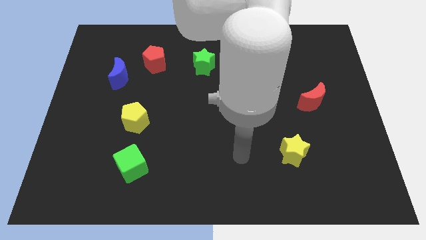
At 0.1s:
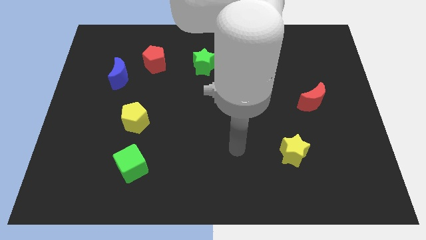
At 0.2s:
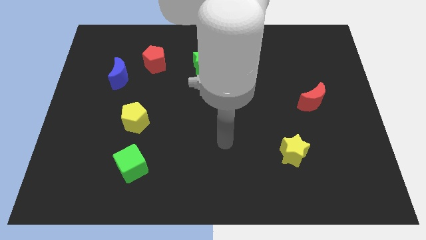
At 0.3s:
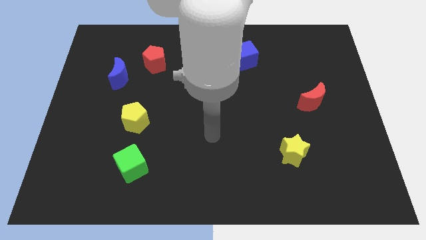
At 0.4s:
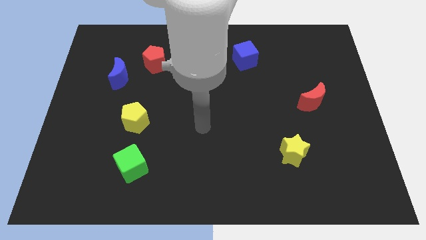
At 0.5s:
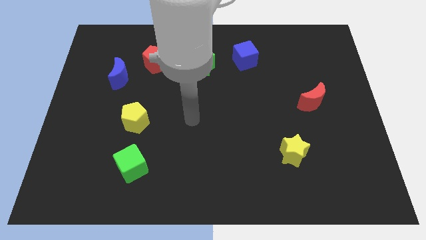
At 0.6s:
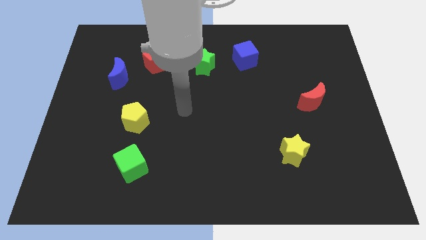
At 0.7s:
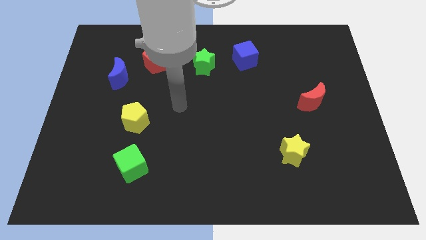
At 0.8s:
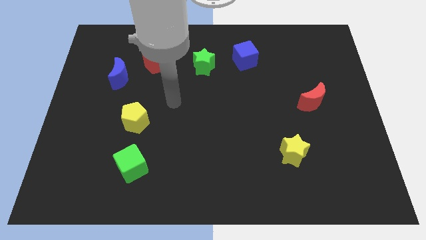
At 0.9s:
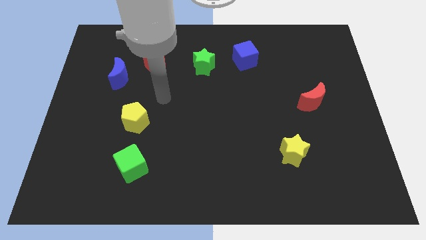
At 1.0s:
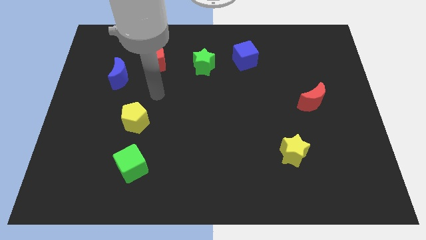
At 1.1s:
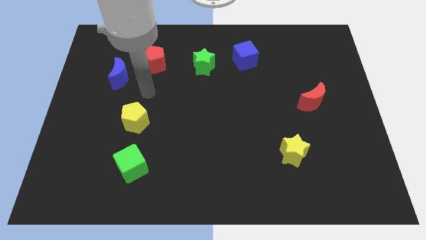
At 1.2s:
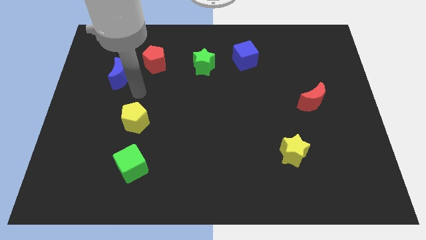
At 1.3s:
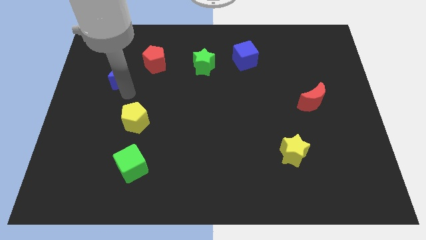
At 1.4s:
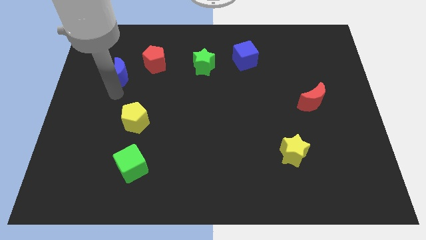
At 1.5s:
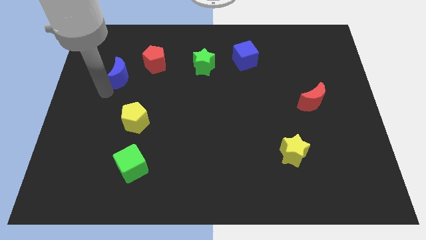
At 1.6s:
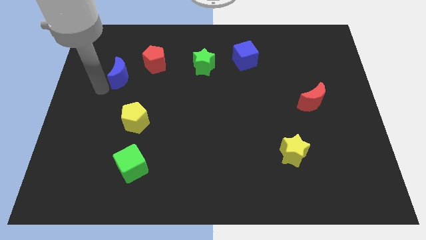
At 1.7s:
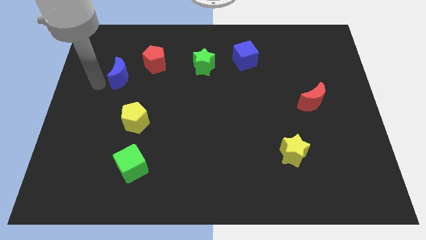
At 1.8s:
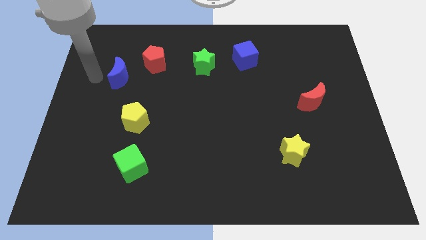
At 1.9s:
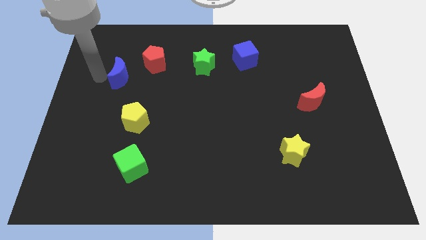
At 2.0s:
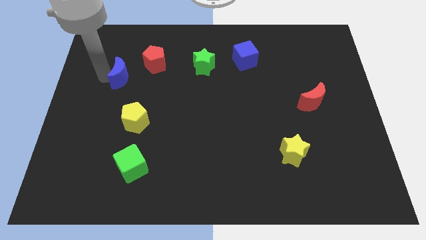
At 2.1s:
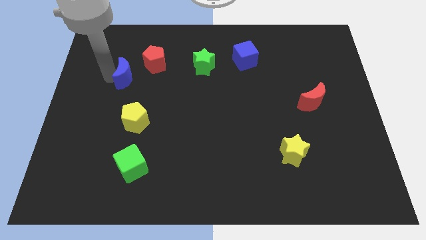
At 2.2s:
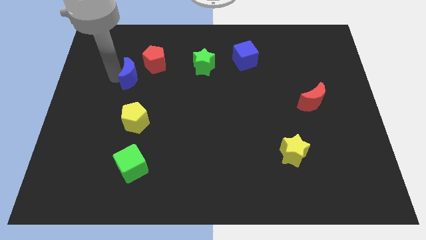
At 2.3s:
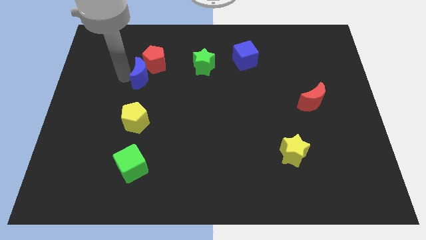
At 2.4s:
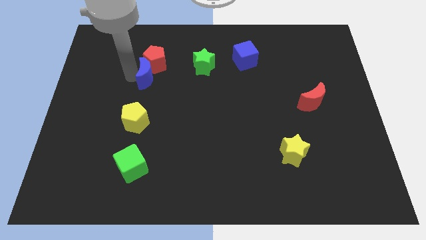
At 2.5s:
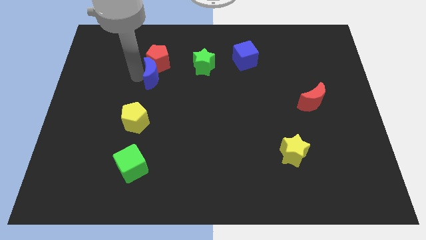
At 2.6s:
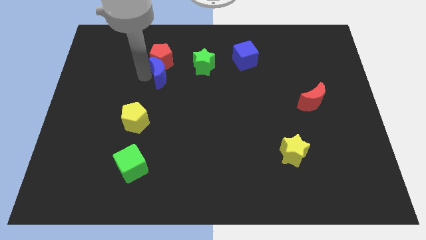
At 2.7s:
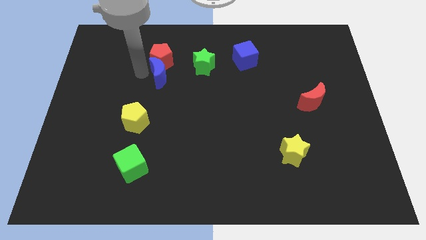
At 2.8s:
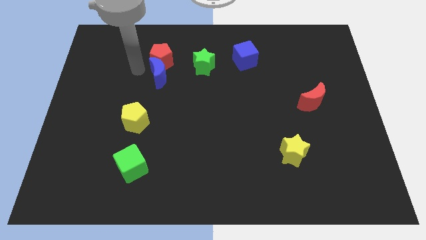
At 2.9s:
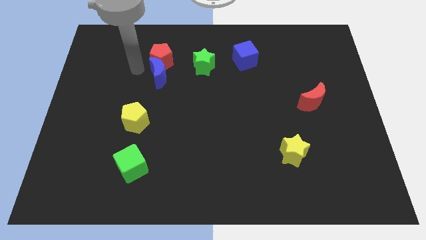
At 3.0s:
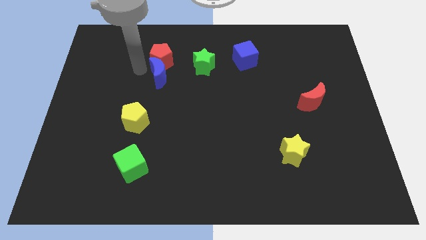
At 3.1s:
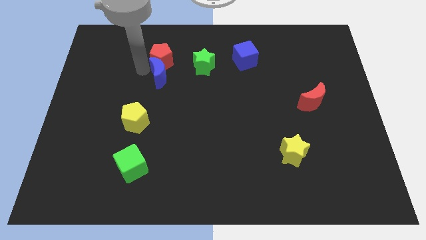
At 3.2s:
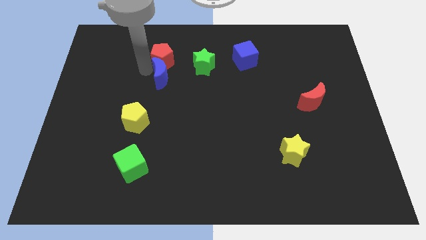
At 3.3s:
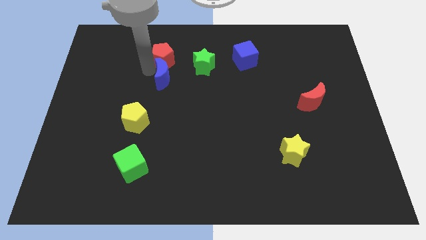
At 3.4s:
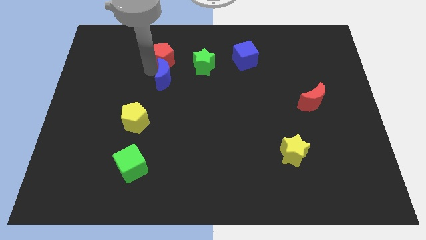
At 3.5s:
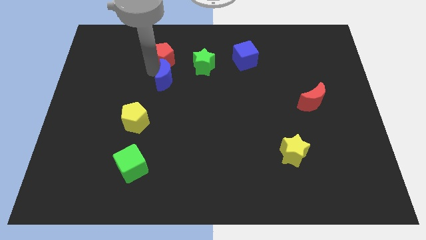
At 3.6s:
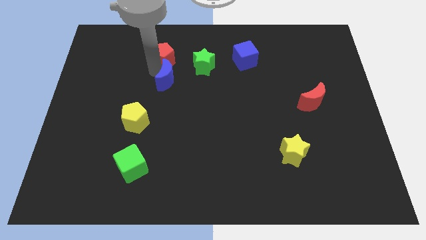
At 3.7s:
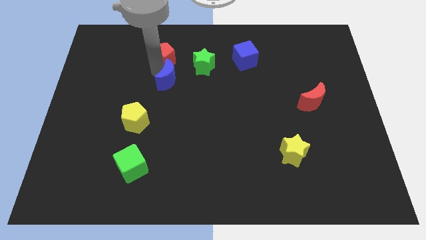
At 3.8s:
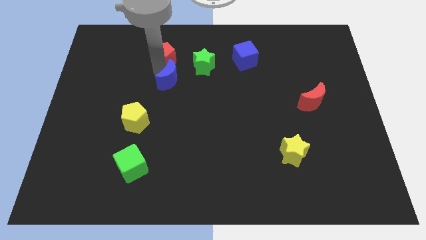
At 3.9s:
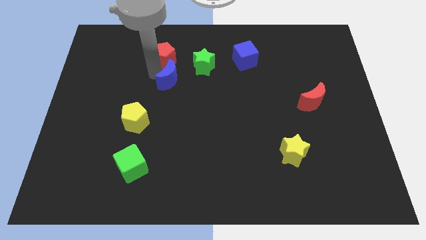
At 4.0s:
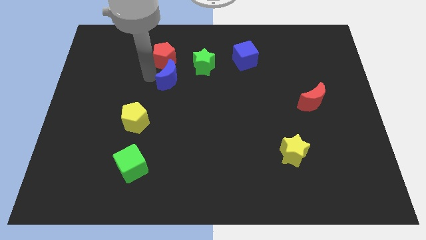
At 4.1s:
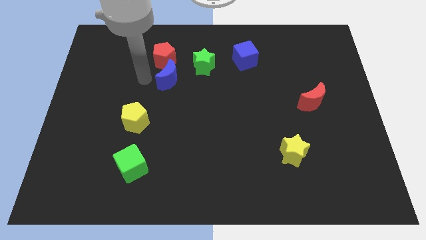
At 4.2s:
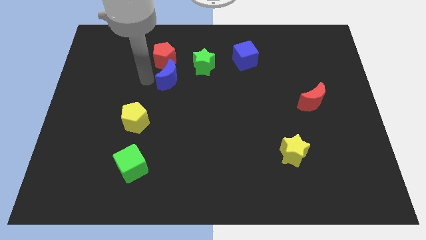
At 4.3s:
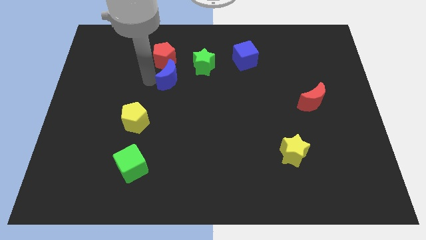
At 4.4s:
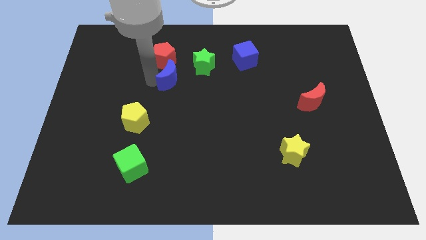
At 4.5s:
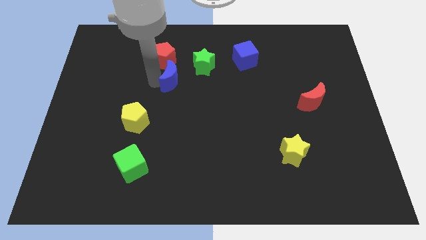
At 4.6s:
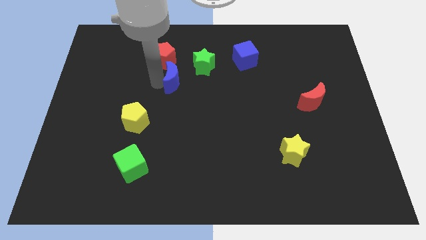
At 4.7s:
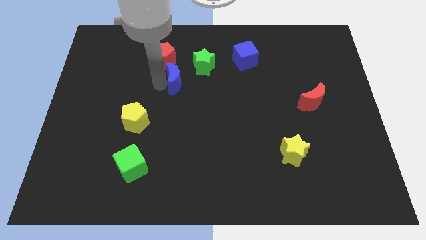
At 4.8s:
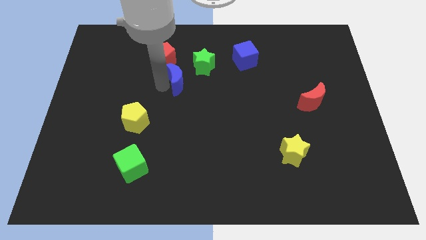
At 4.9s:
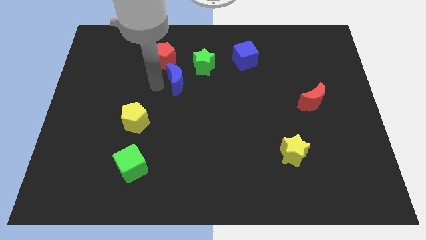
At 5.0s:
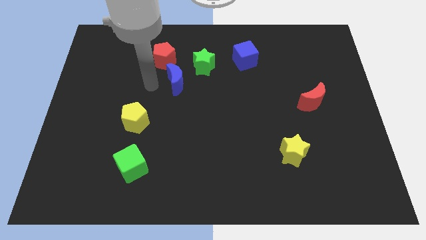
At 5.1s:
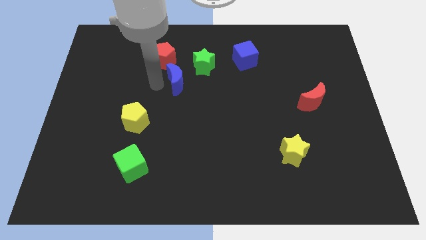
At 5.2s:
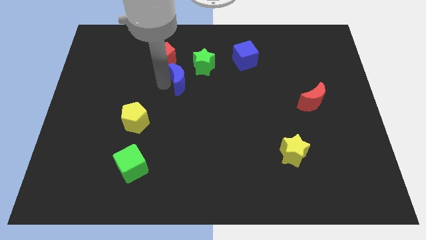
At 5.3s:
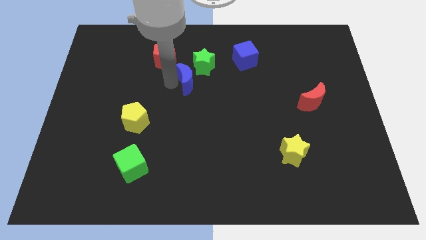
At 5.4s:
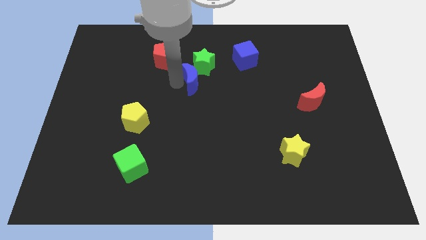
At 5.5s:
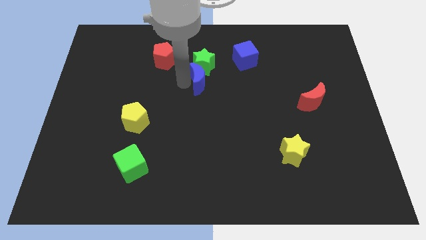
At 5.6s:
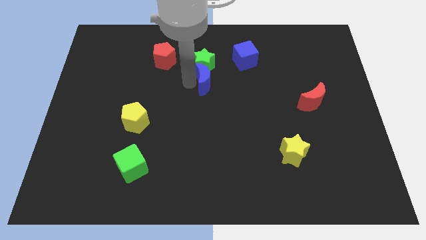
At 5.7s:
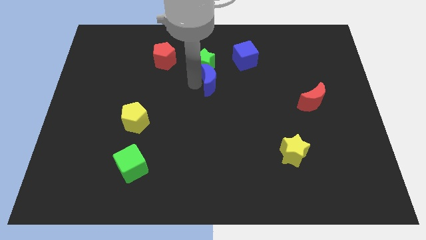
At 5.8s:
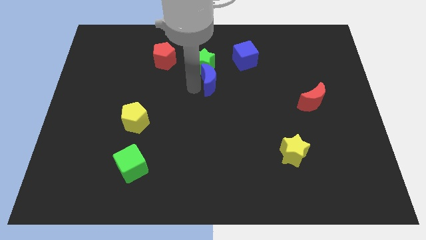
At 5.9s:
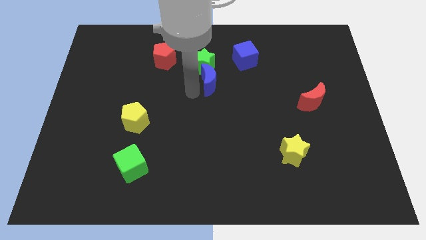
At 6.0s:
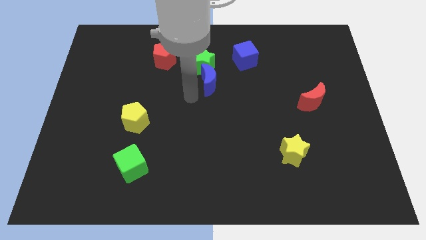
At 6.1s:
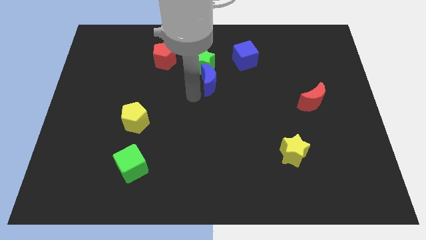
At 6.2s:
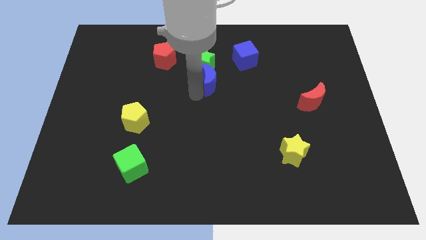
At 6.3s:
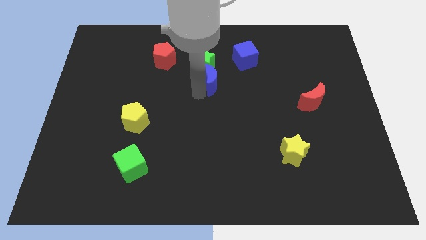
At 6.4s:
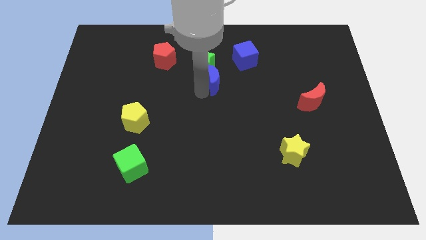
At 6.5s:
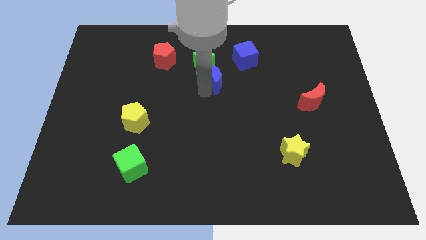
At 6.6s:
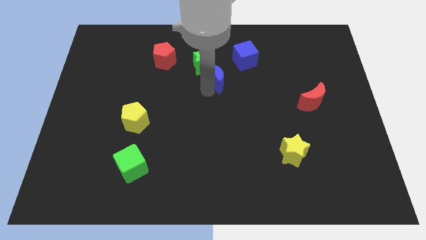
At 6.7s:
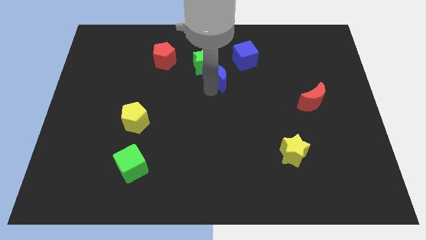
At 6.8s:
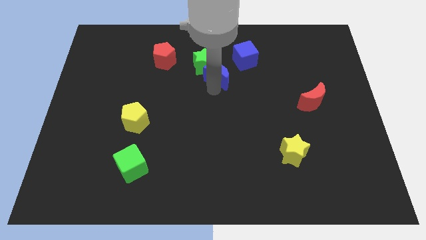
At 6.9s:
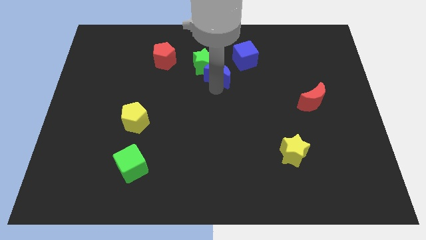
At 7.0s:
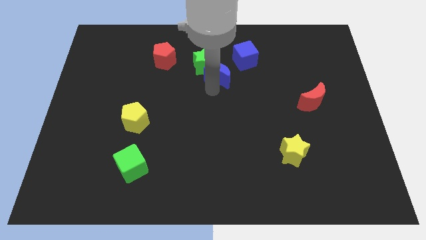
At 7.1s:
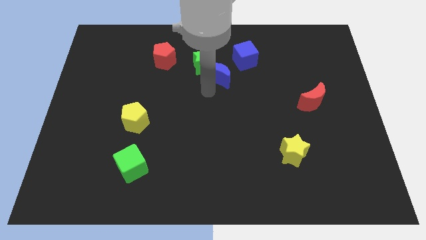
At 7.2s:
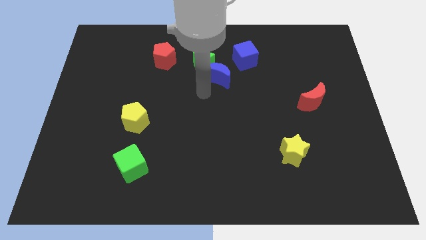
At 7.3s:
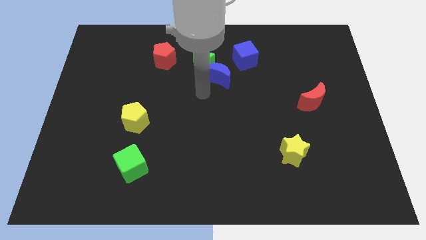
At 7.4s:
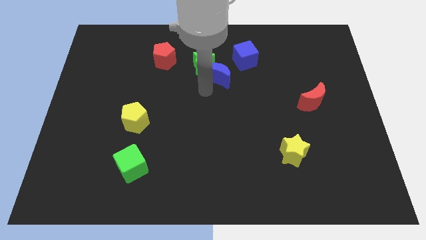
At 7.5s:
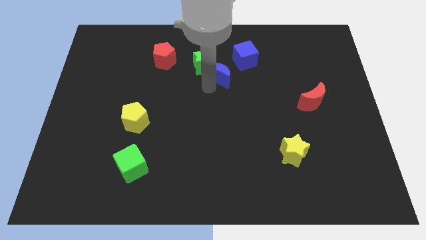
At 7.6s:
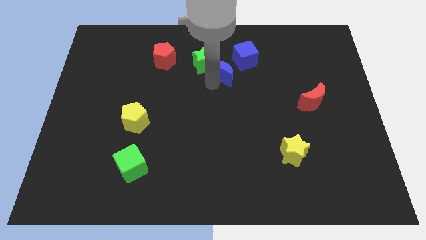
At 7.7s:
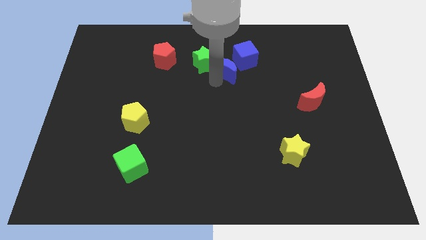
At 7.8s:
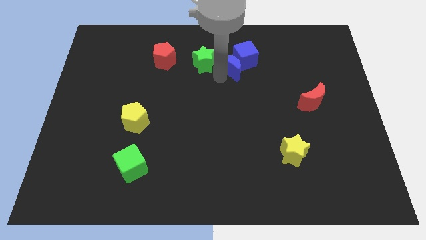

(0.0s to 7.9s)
push the blue moon close to the blue cube
